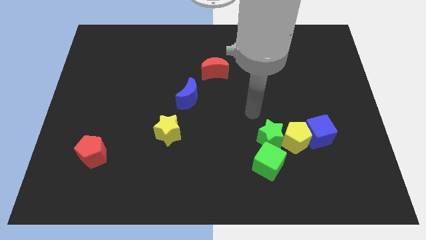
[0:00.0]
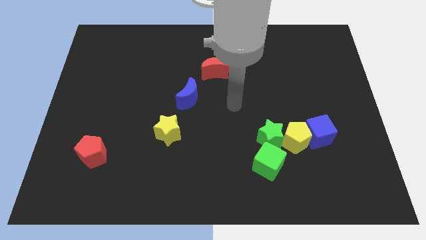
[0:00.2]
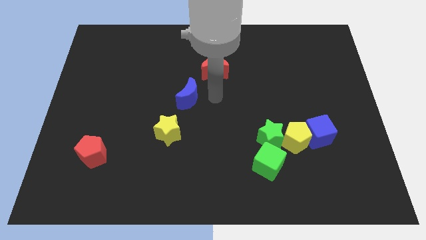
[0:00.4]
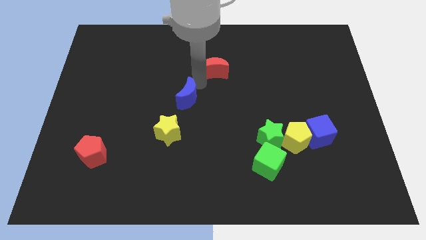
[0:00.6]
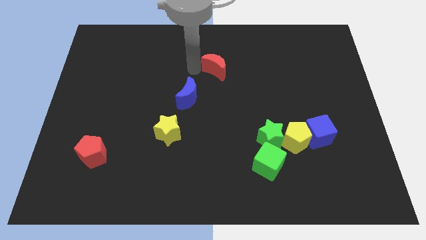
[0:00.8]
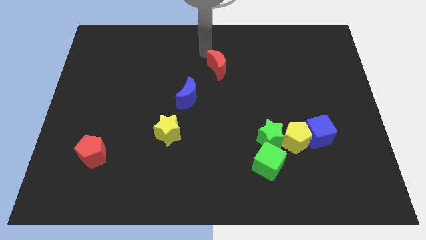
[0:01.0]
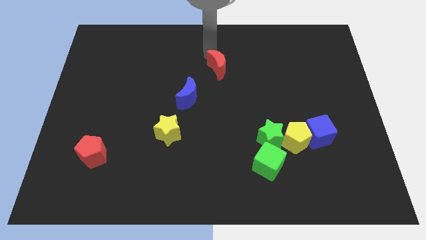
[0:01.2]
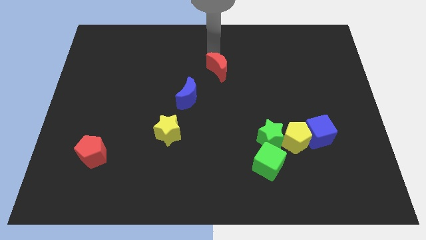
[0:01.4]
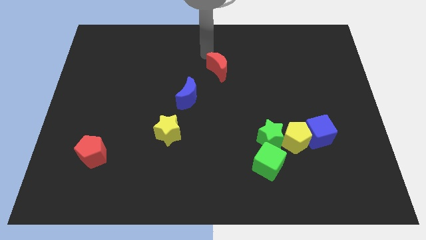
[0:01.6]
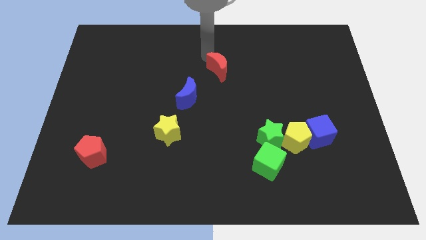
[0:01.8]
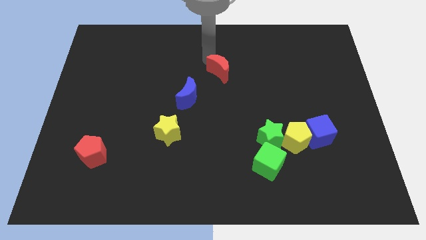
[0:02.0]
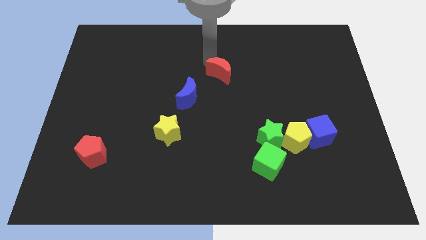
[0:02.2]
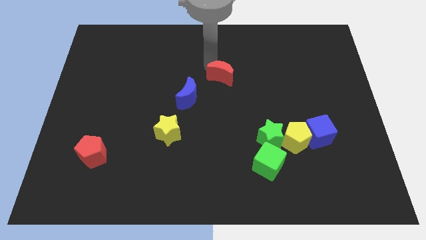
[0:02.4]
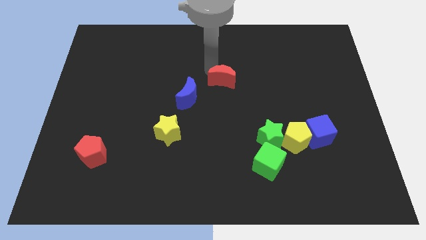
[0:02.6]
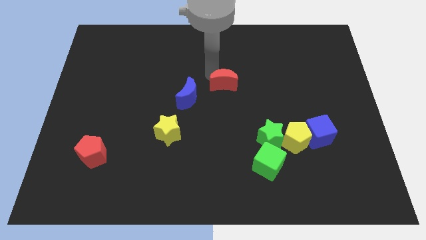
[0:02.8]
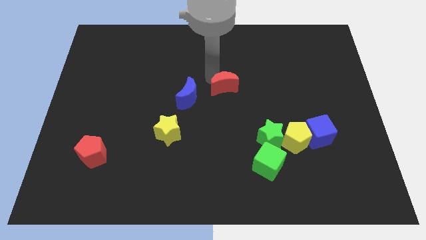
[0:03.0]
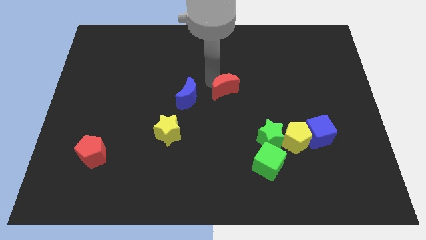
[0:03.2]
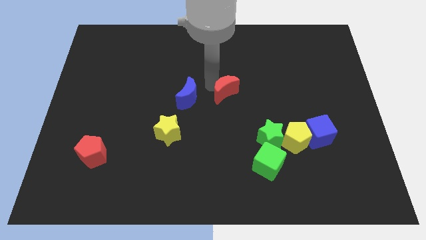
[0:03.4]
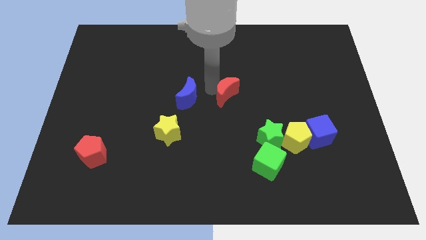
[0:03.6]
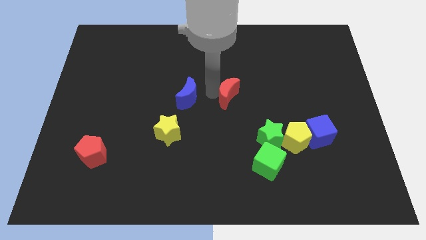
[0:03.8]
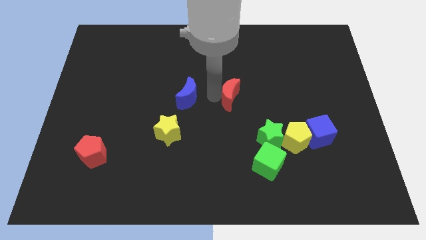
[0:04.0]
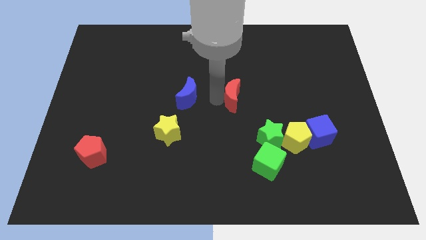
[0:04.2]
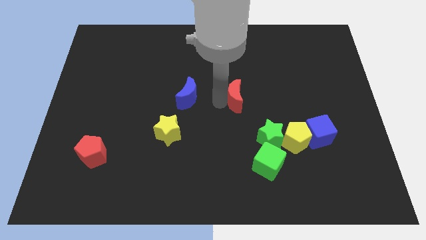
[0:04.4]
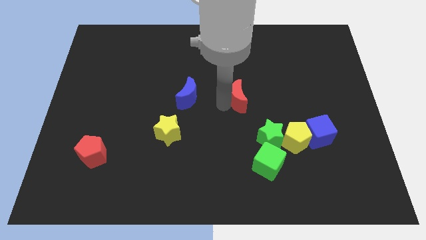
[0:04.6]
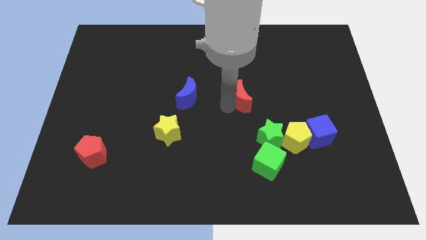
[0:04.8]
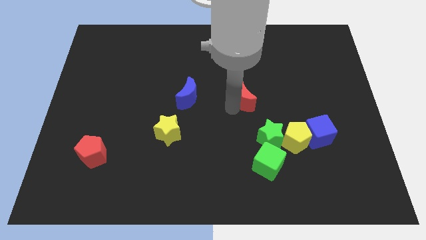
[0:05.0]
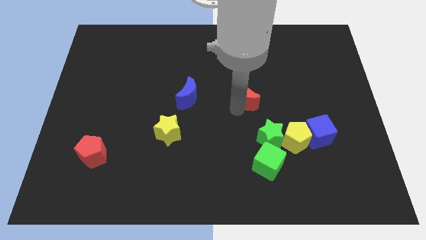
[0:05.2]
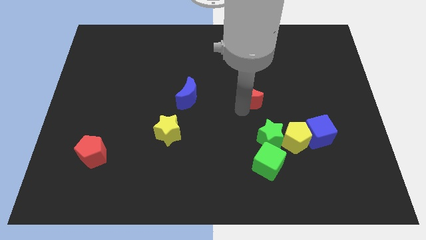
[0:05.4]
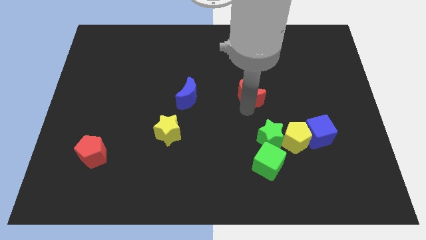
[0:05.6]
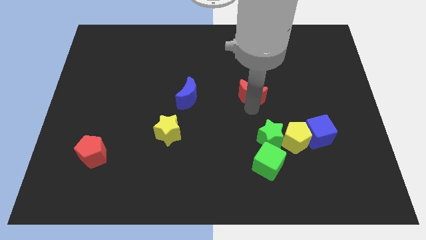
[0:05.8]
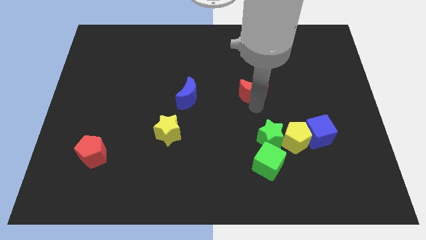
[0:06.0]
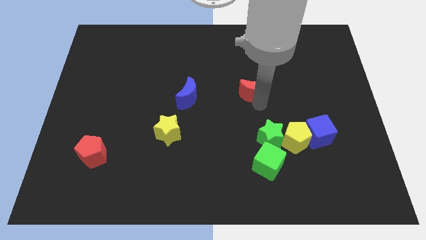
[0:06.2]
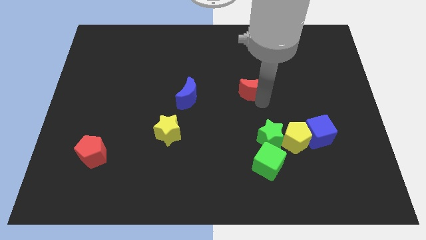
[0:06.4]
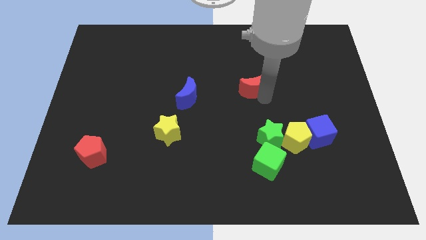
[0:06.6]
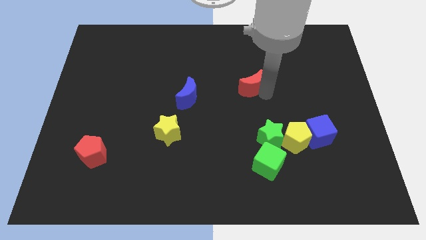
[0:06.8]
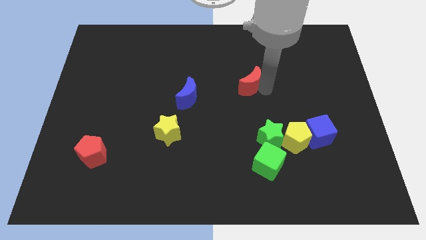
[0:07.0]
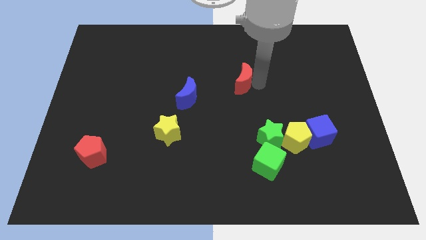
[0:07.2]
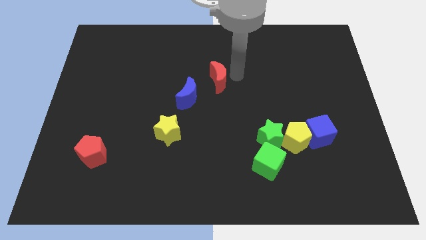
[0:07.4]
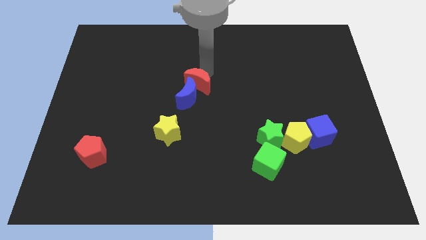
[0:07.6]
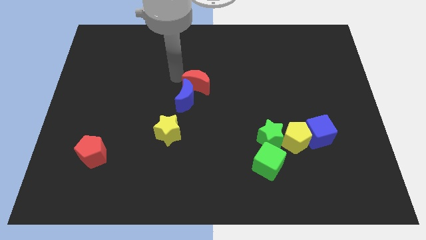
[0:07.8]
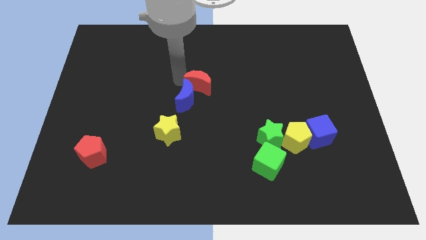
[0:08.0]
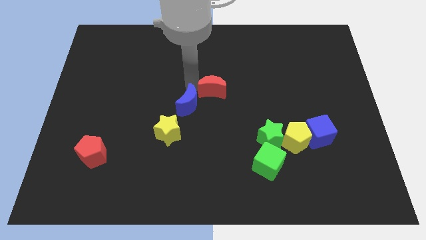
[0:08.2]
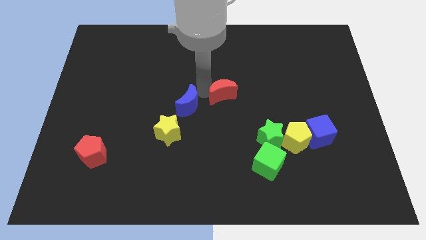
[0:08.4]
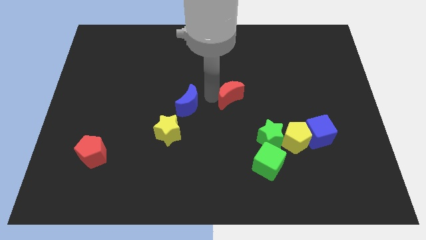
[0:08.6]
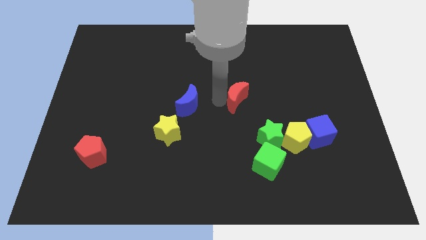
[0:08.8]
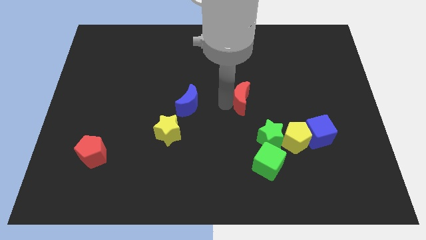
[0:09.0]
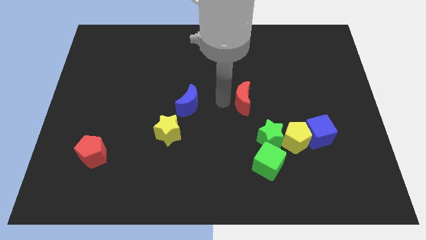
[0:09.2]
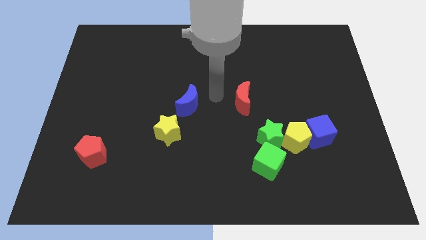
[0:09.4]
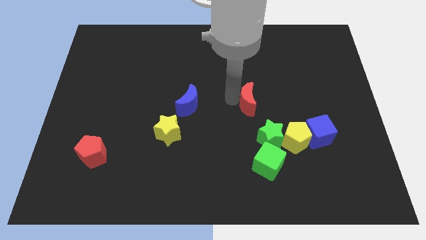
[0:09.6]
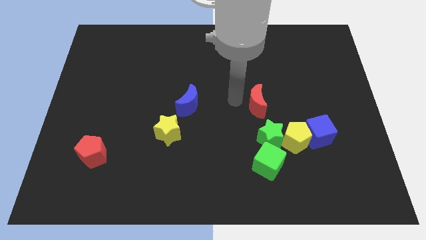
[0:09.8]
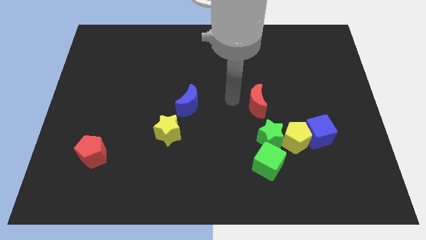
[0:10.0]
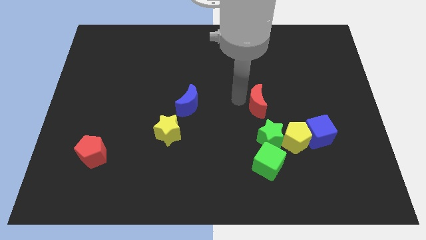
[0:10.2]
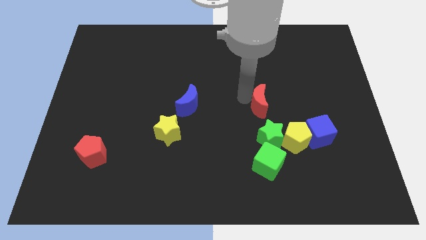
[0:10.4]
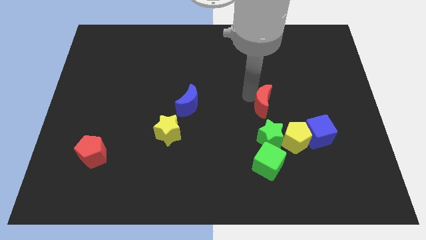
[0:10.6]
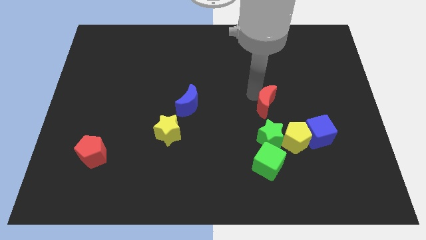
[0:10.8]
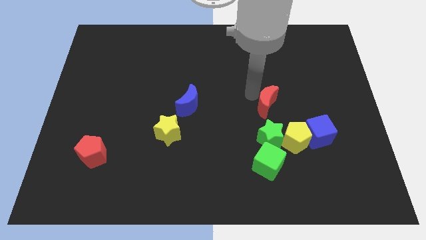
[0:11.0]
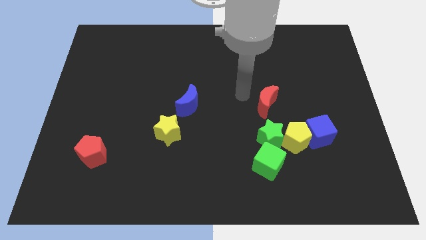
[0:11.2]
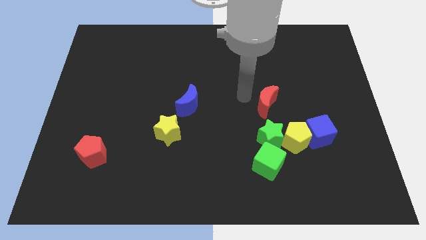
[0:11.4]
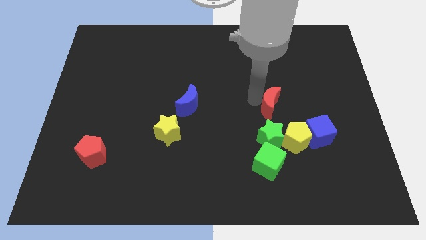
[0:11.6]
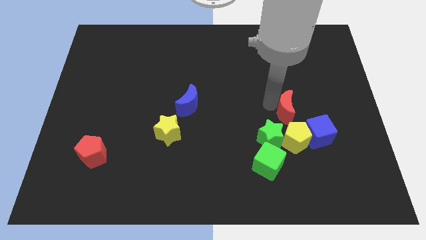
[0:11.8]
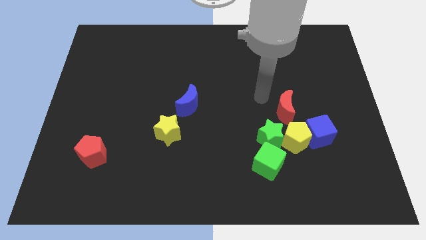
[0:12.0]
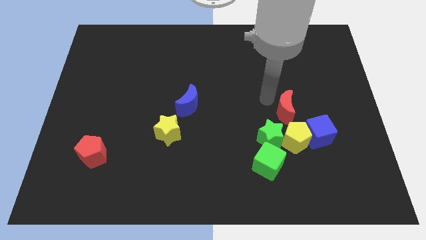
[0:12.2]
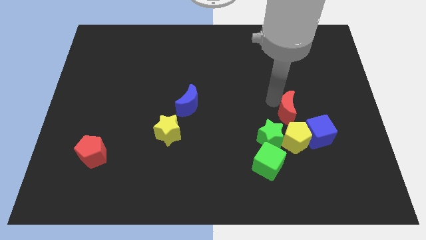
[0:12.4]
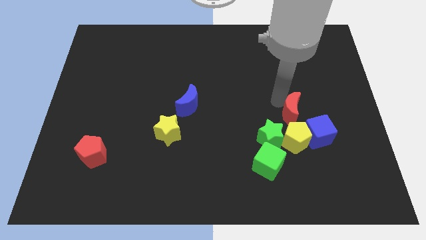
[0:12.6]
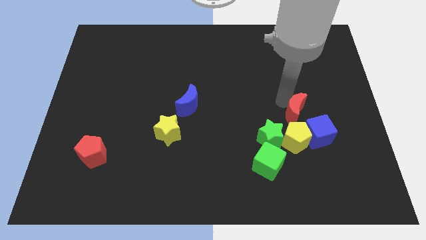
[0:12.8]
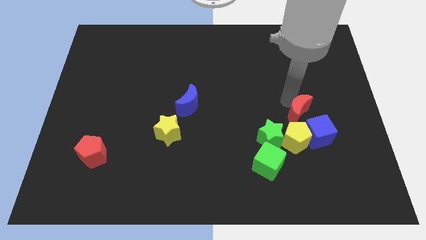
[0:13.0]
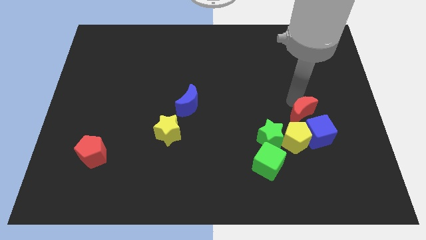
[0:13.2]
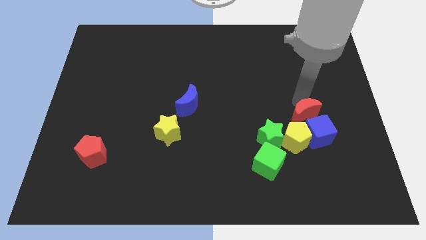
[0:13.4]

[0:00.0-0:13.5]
move the red moon close to the blue cube

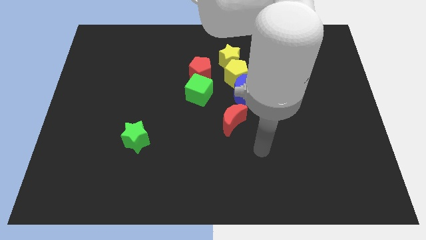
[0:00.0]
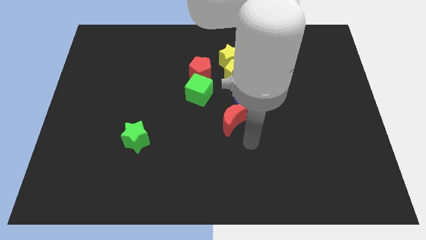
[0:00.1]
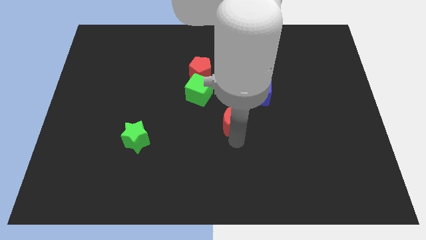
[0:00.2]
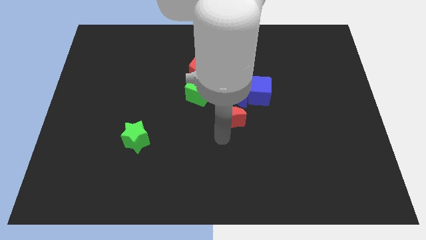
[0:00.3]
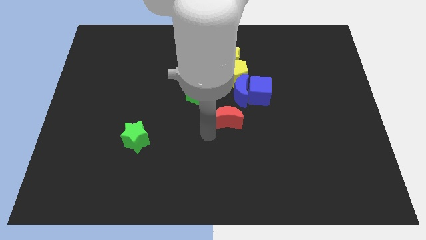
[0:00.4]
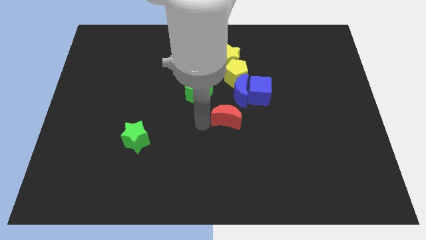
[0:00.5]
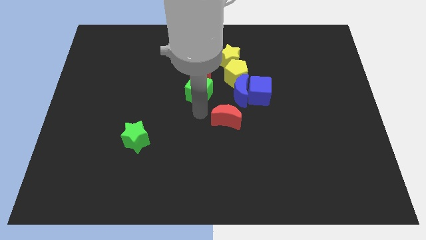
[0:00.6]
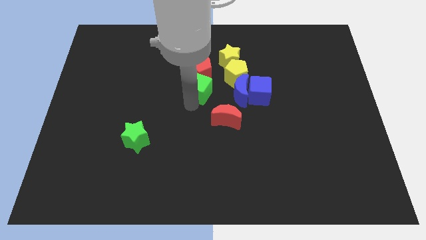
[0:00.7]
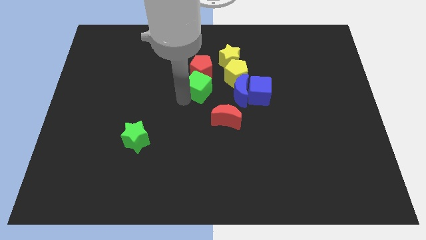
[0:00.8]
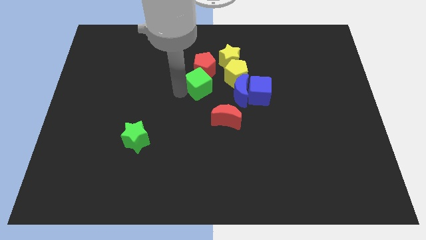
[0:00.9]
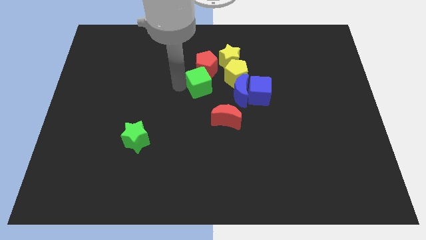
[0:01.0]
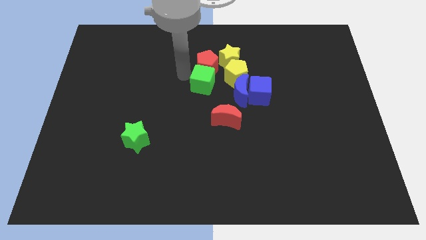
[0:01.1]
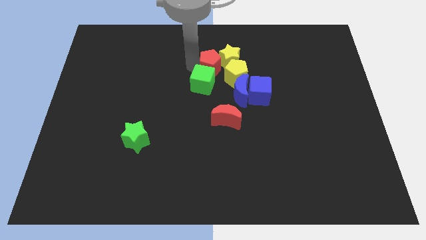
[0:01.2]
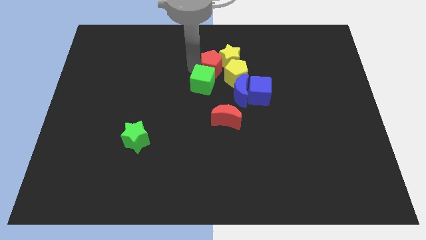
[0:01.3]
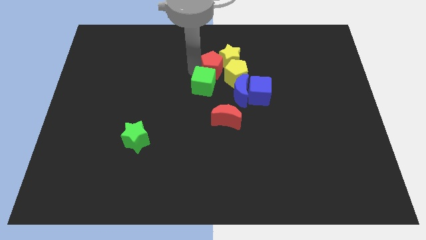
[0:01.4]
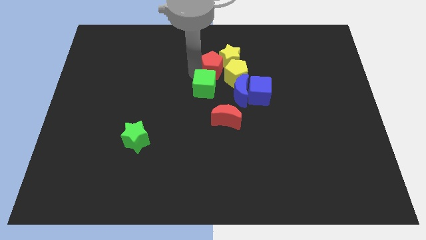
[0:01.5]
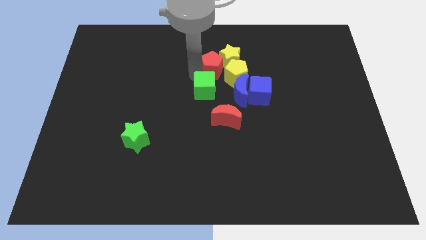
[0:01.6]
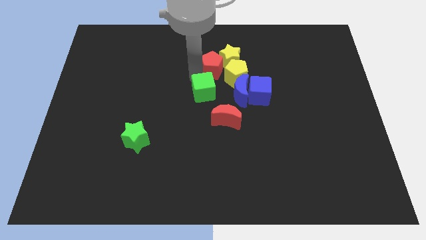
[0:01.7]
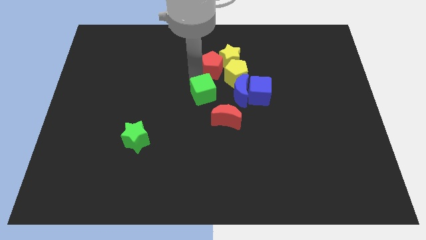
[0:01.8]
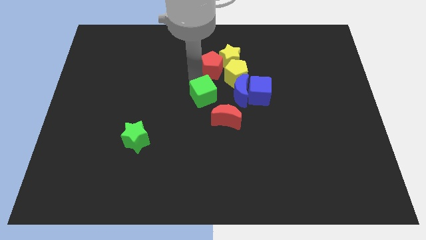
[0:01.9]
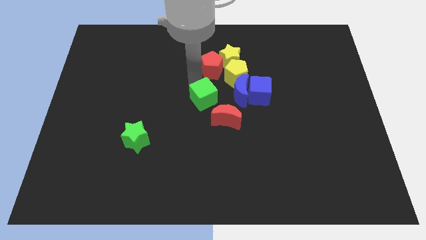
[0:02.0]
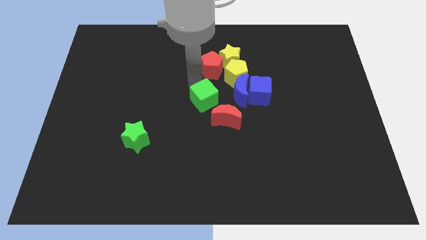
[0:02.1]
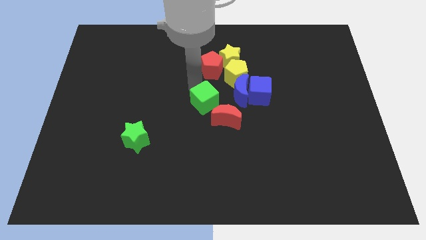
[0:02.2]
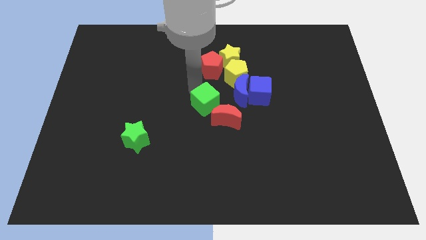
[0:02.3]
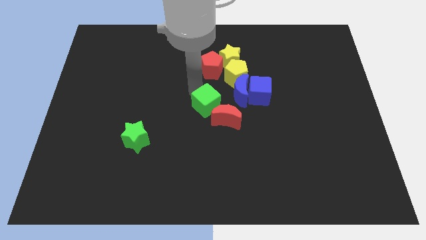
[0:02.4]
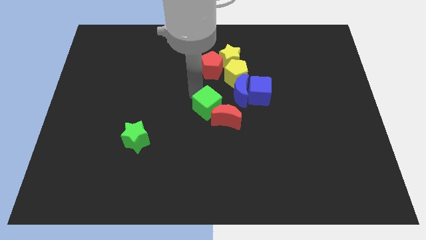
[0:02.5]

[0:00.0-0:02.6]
move the green cube to the red moon
